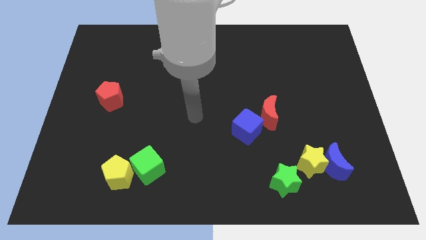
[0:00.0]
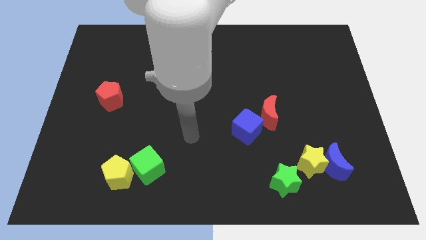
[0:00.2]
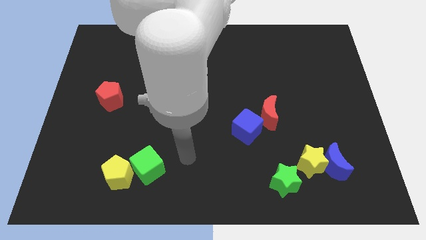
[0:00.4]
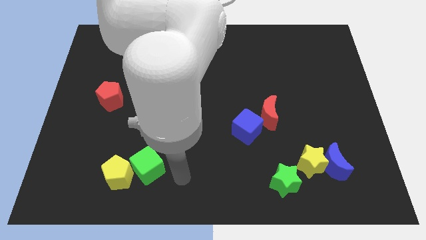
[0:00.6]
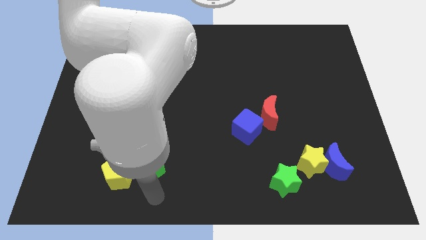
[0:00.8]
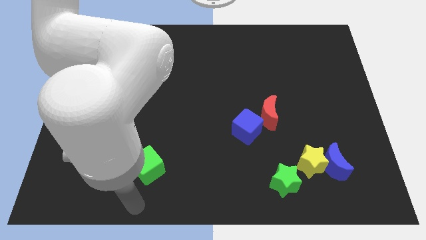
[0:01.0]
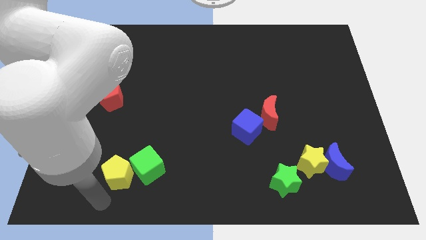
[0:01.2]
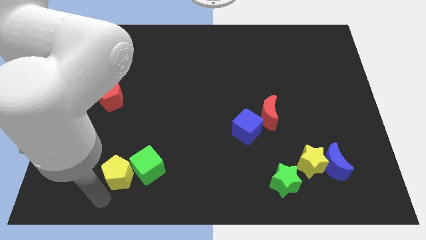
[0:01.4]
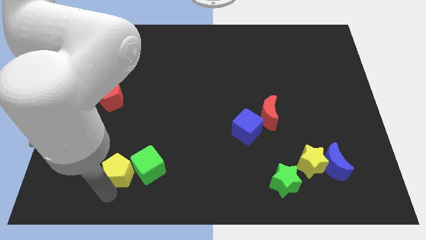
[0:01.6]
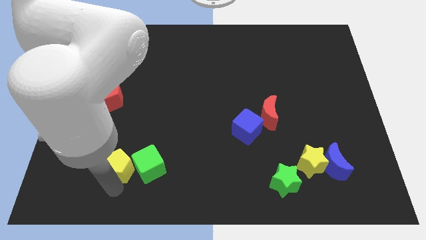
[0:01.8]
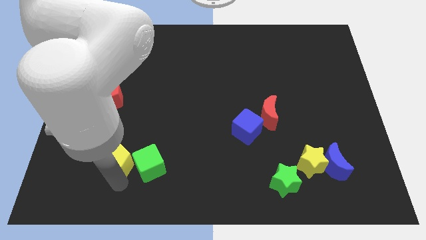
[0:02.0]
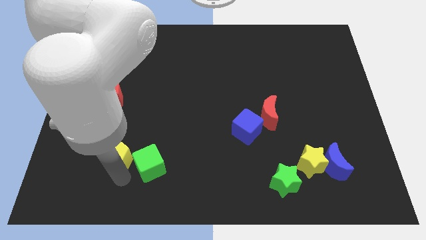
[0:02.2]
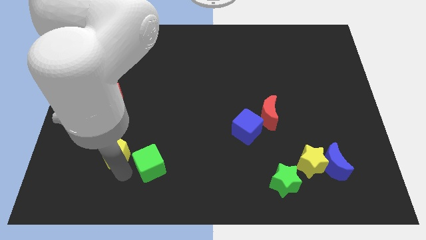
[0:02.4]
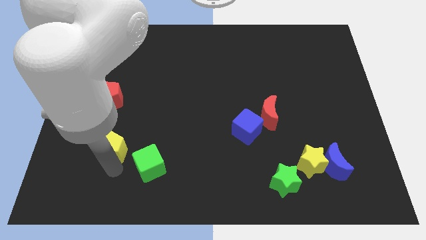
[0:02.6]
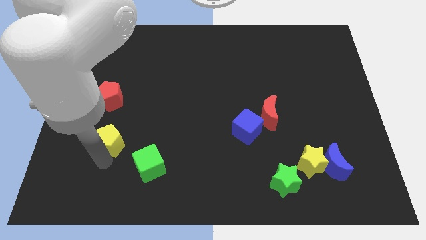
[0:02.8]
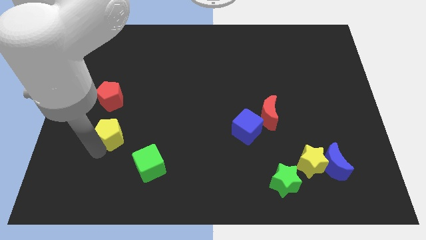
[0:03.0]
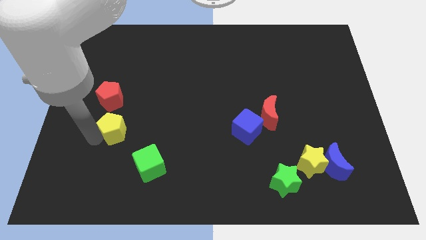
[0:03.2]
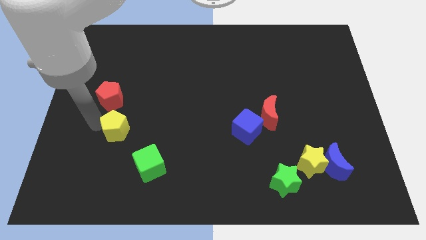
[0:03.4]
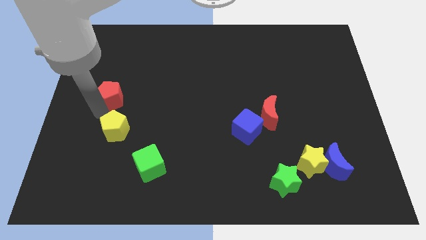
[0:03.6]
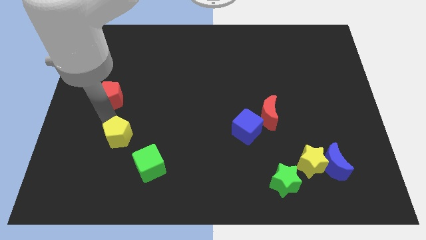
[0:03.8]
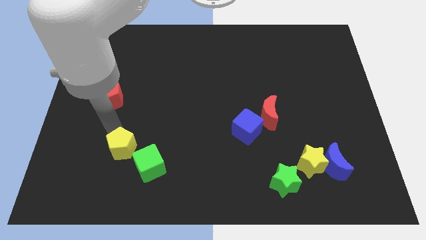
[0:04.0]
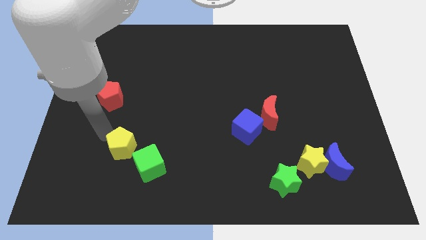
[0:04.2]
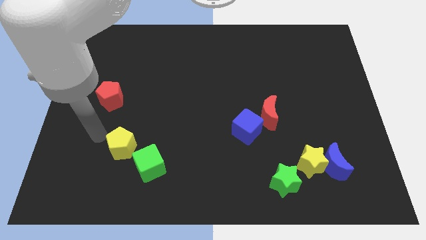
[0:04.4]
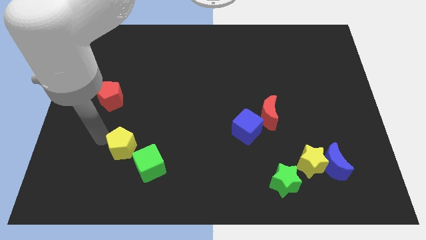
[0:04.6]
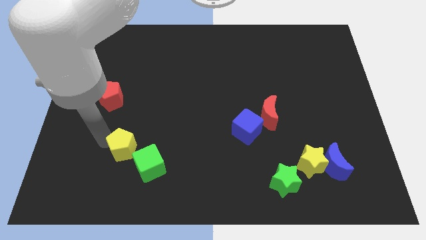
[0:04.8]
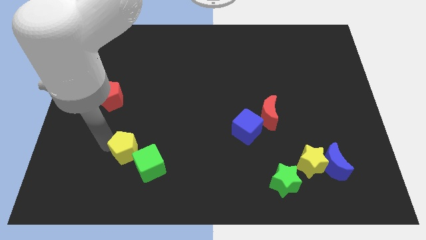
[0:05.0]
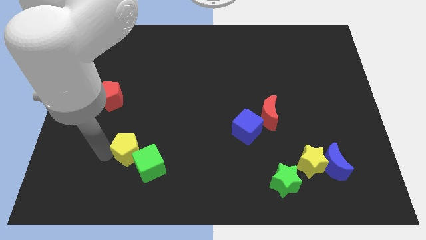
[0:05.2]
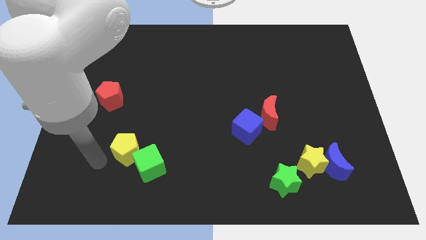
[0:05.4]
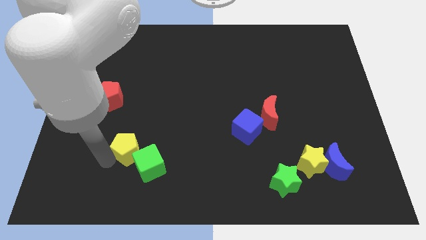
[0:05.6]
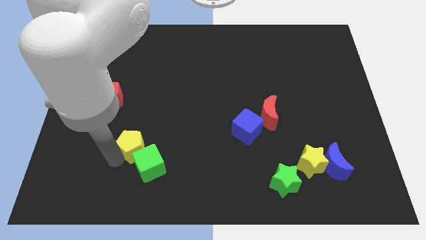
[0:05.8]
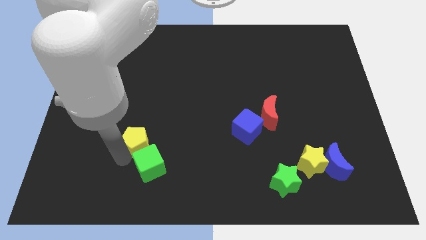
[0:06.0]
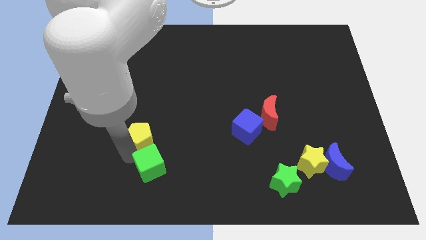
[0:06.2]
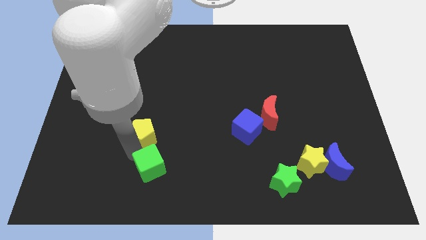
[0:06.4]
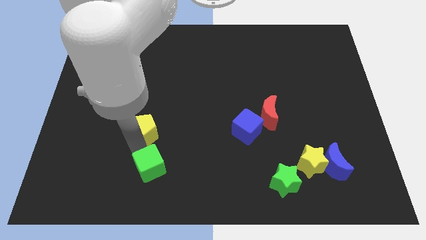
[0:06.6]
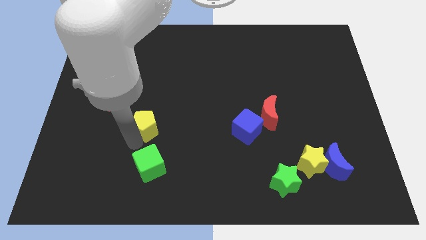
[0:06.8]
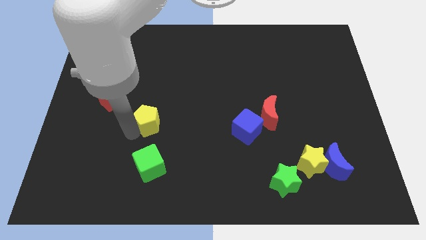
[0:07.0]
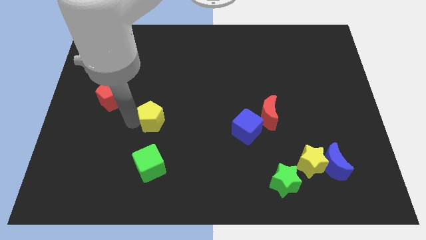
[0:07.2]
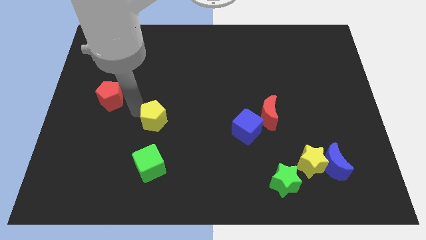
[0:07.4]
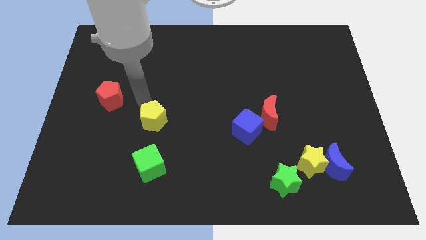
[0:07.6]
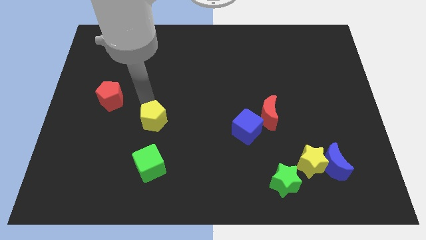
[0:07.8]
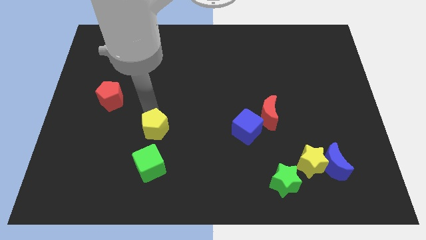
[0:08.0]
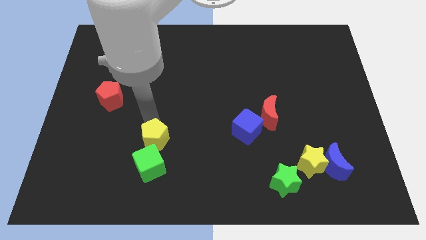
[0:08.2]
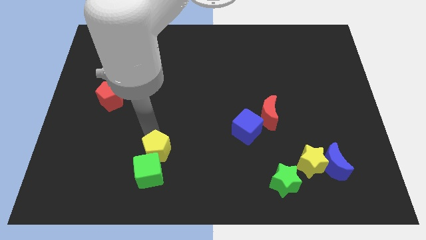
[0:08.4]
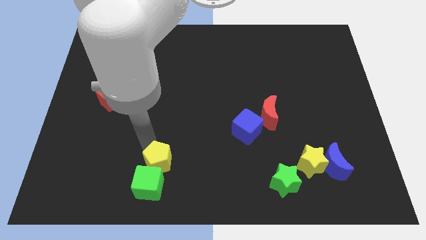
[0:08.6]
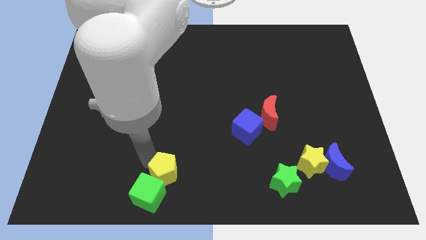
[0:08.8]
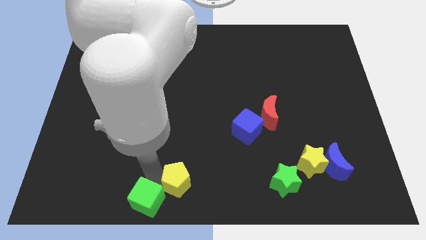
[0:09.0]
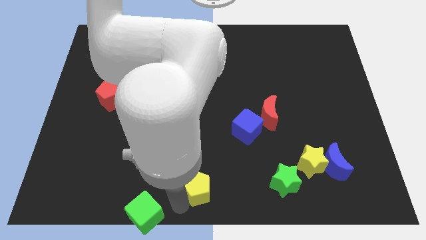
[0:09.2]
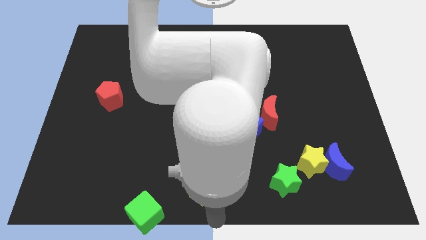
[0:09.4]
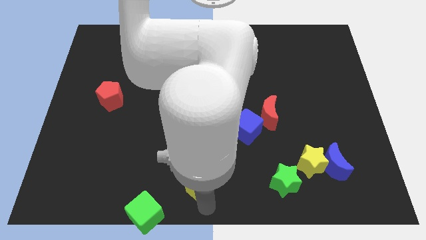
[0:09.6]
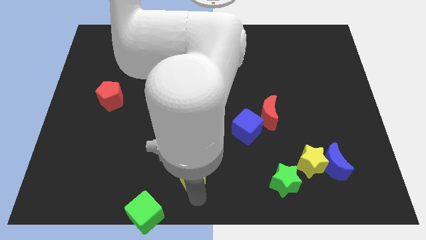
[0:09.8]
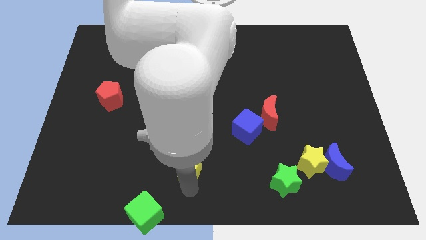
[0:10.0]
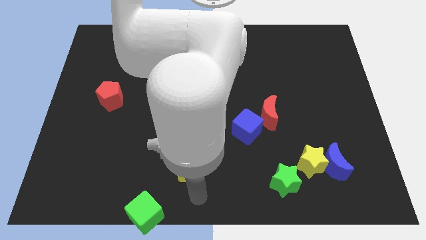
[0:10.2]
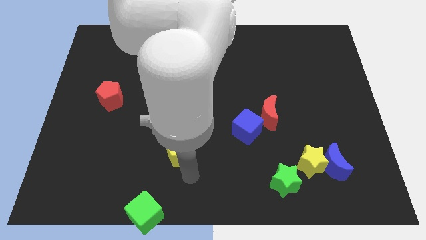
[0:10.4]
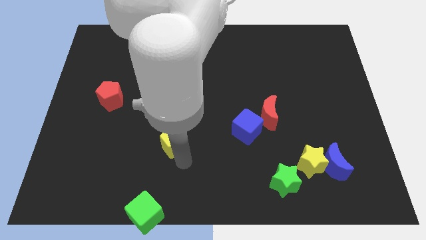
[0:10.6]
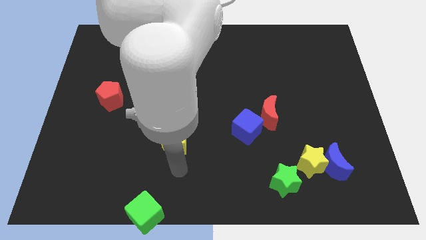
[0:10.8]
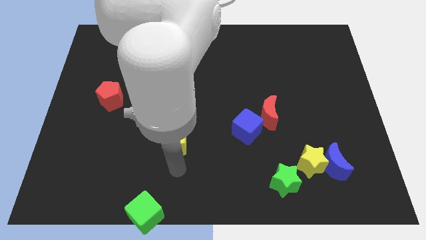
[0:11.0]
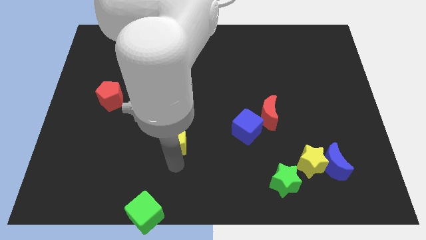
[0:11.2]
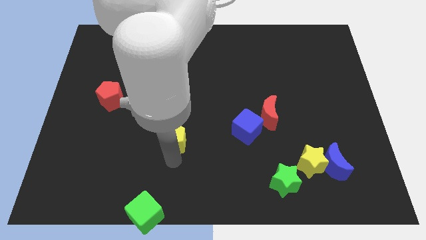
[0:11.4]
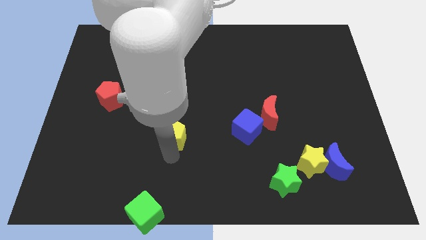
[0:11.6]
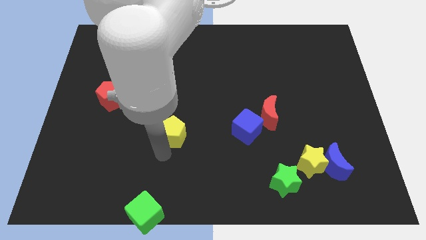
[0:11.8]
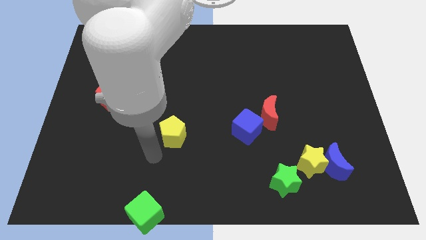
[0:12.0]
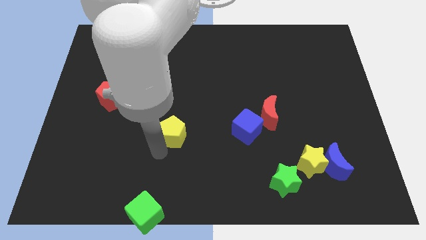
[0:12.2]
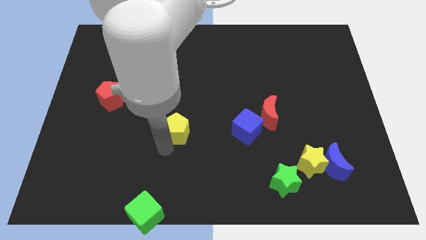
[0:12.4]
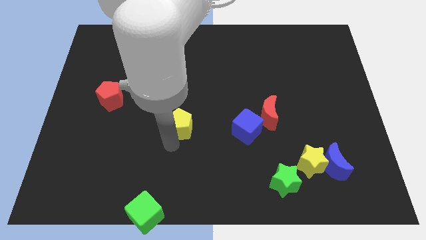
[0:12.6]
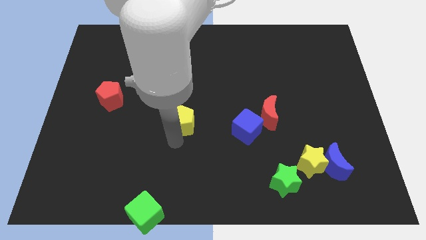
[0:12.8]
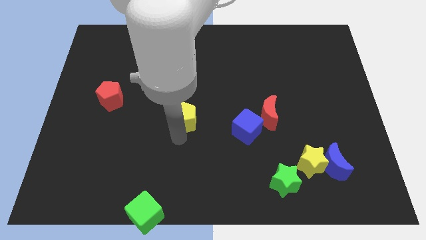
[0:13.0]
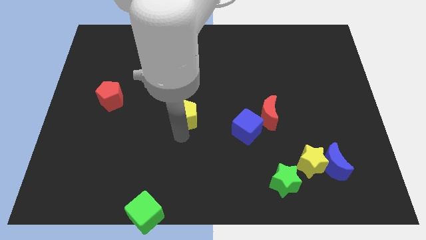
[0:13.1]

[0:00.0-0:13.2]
move the yellow pentagon upwards and right diagonally

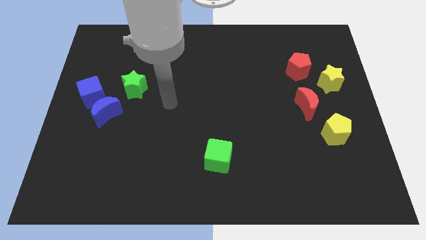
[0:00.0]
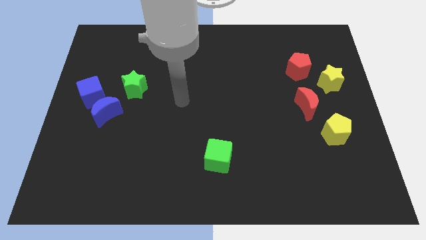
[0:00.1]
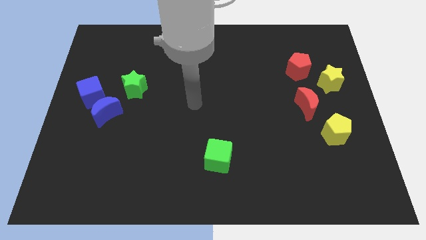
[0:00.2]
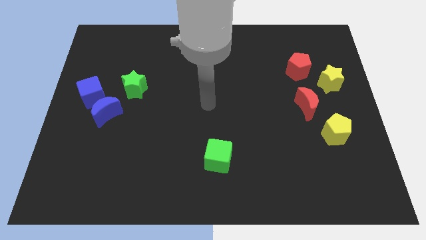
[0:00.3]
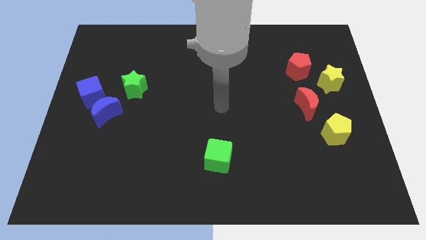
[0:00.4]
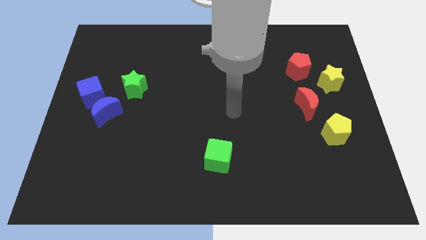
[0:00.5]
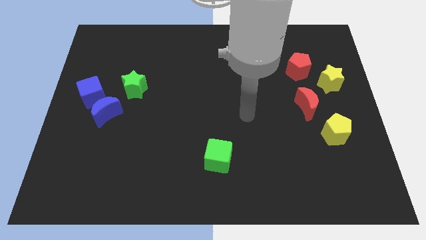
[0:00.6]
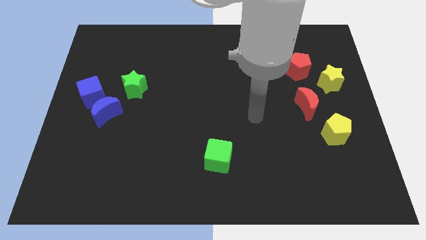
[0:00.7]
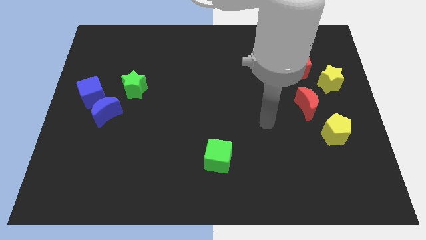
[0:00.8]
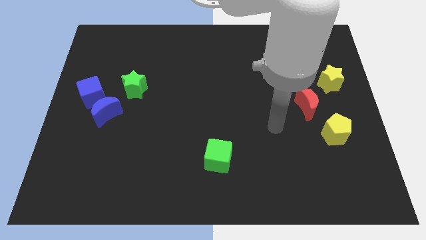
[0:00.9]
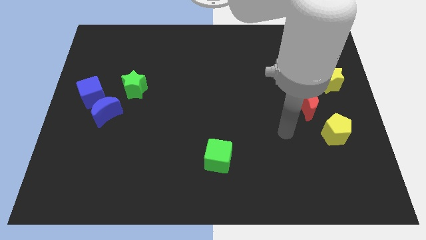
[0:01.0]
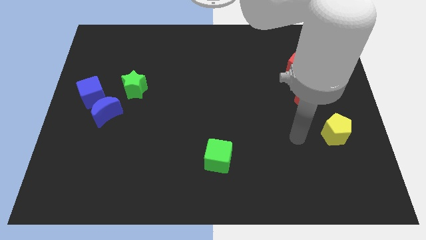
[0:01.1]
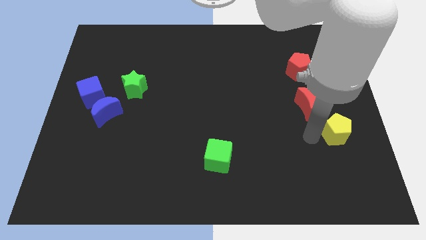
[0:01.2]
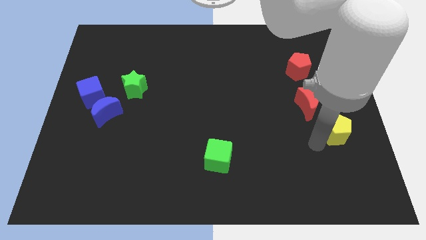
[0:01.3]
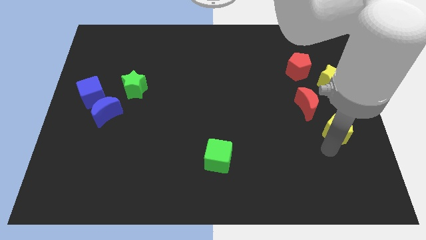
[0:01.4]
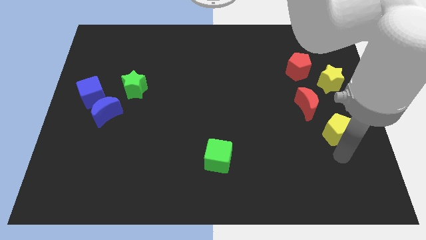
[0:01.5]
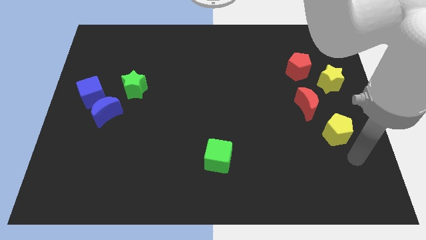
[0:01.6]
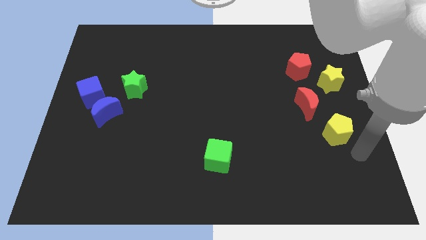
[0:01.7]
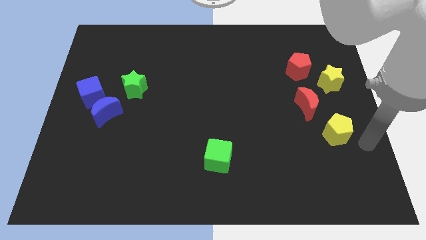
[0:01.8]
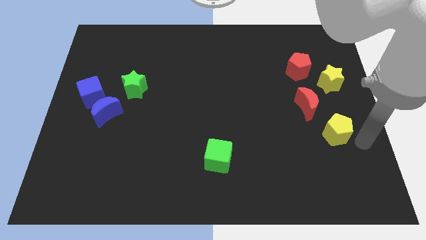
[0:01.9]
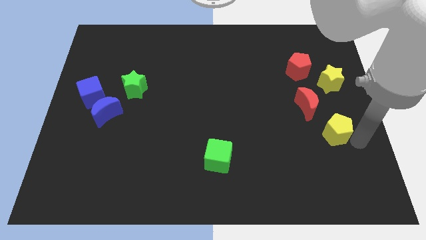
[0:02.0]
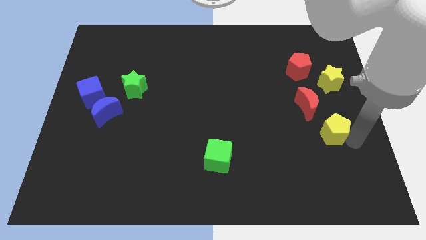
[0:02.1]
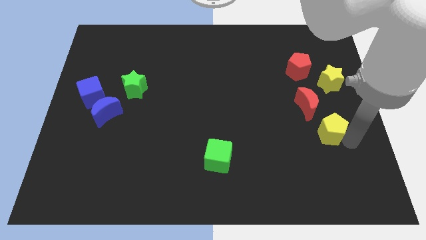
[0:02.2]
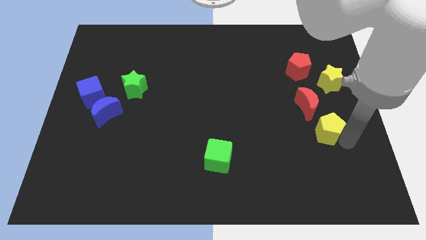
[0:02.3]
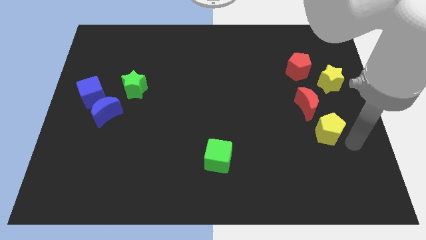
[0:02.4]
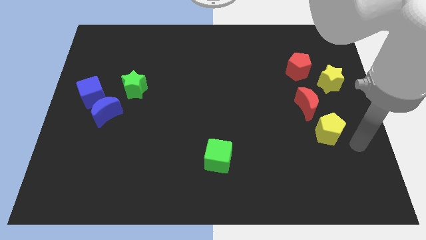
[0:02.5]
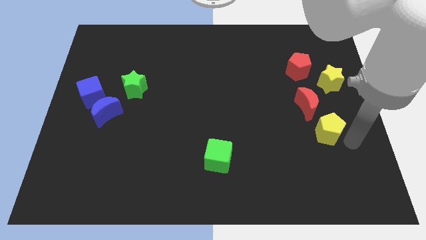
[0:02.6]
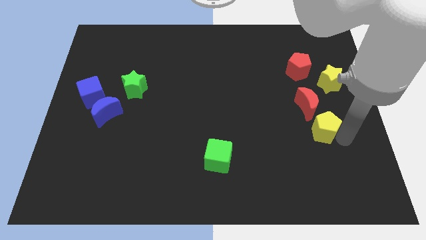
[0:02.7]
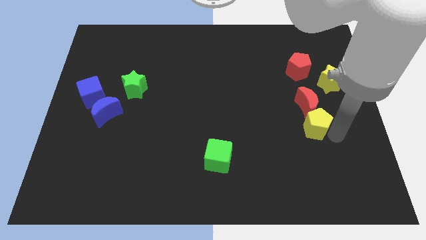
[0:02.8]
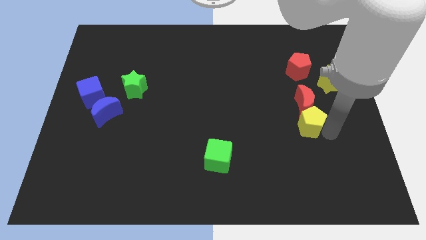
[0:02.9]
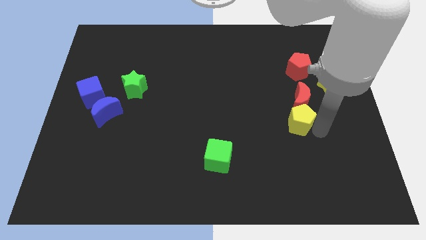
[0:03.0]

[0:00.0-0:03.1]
move the yellow pentagon somewhat upwards and then to the left
